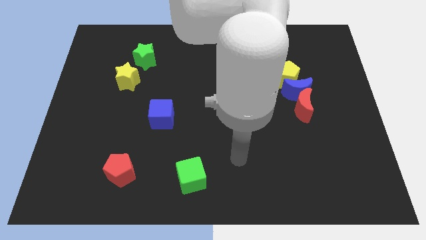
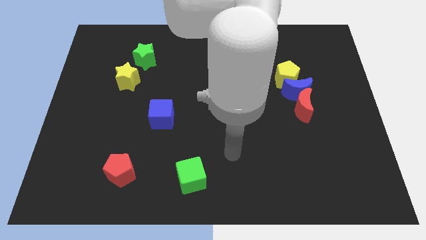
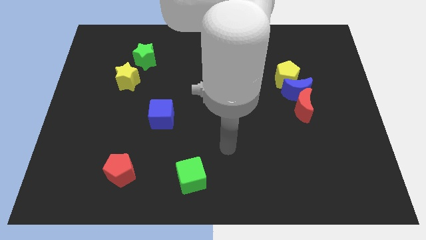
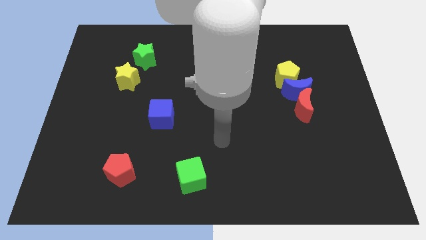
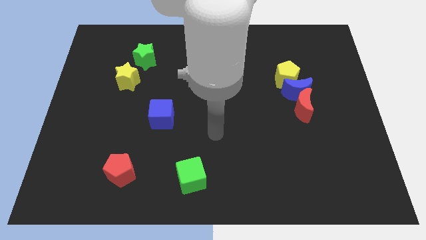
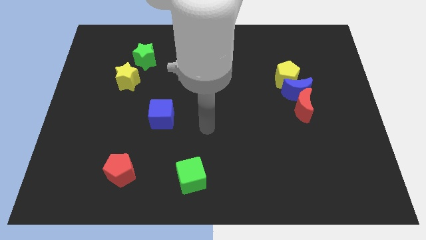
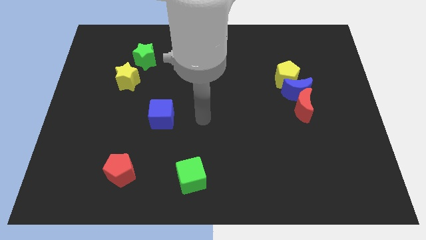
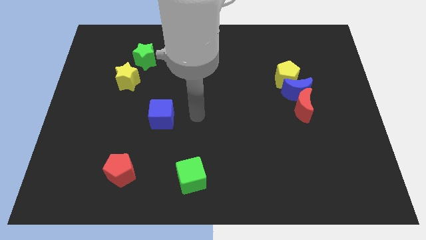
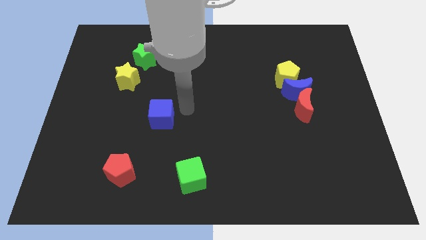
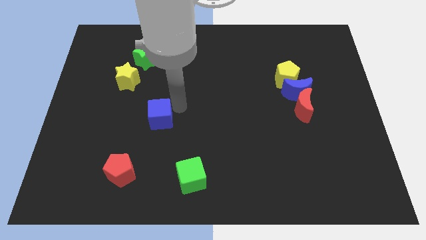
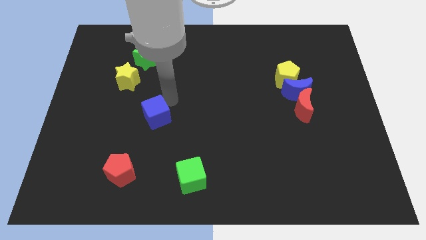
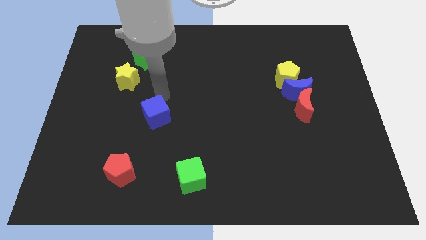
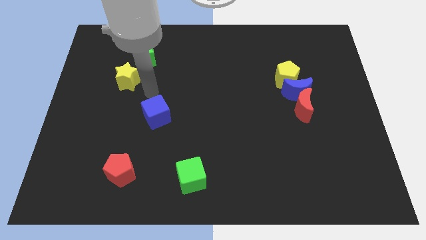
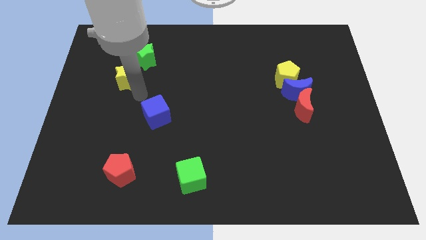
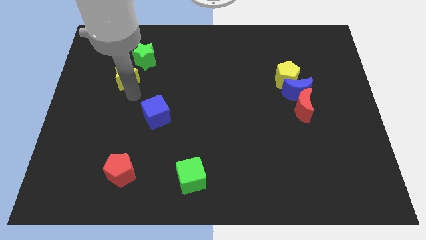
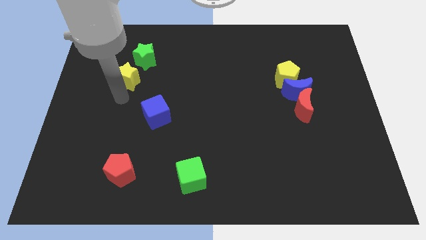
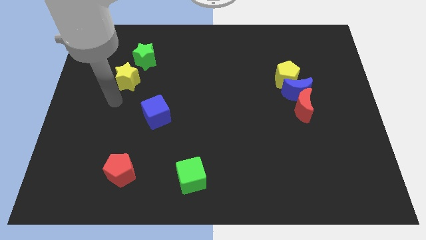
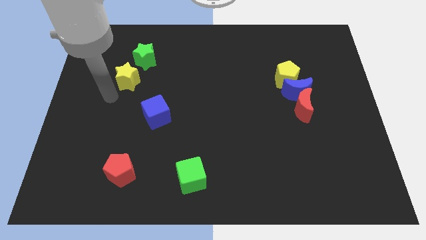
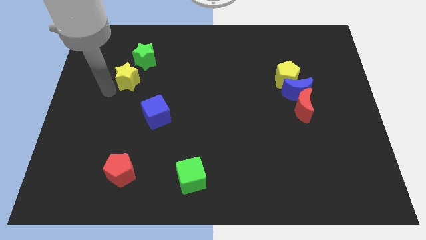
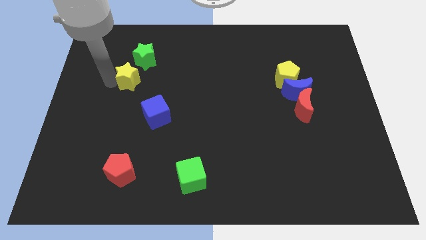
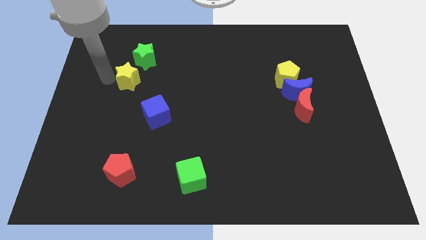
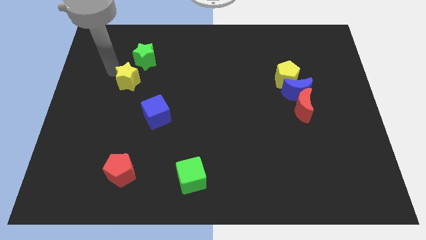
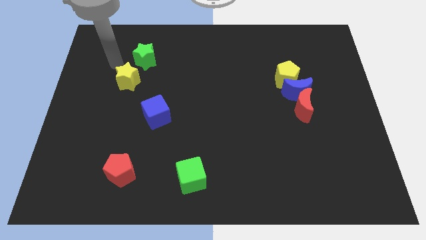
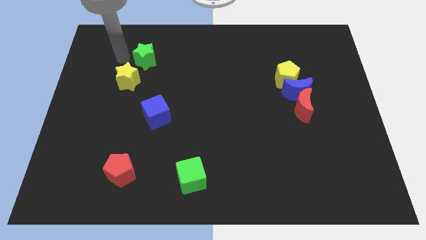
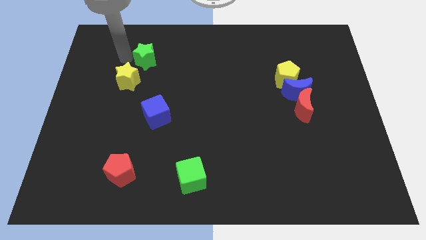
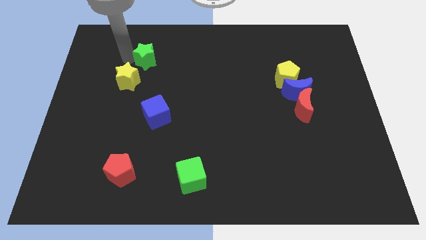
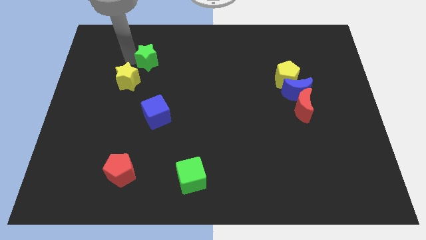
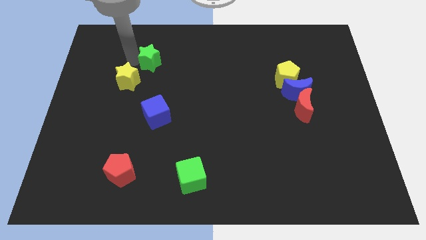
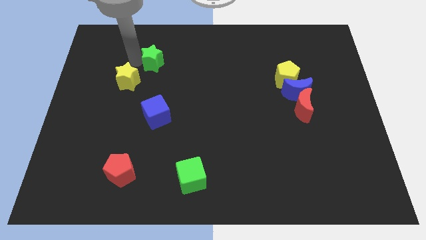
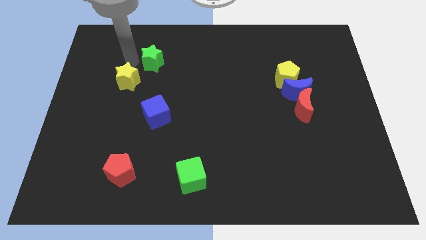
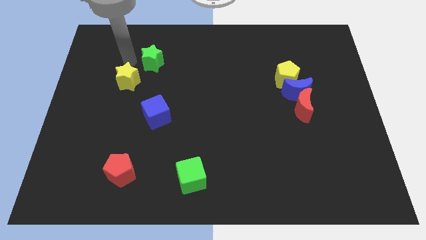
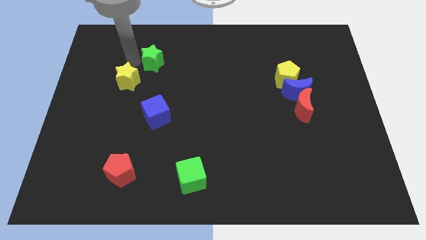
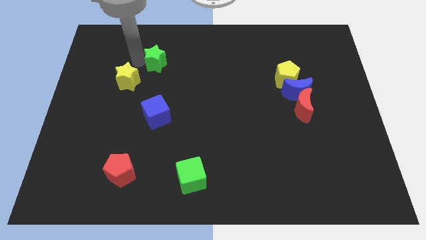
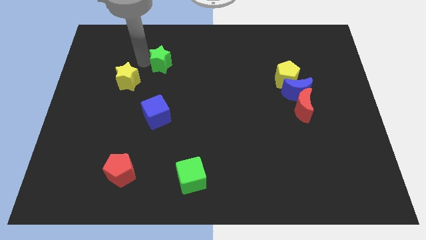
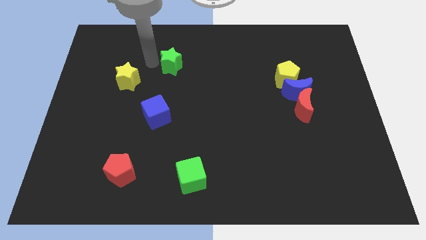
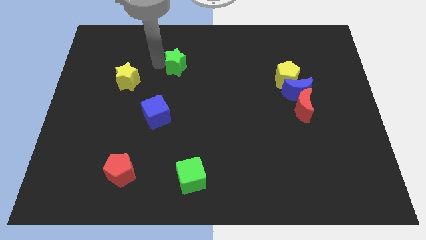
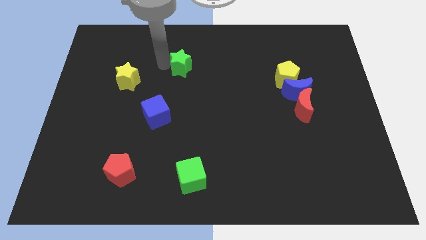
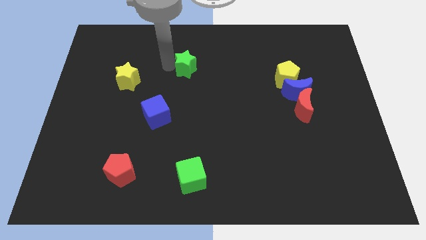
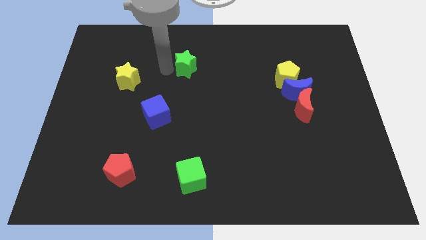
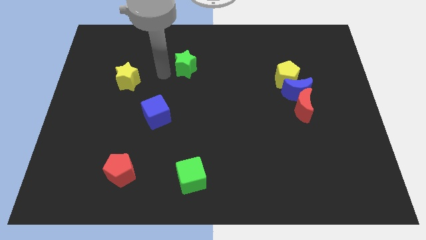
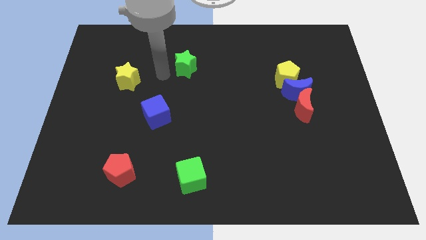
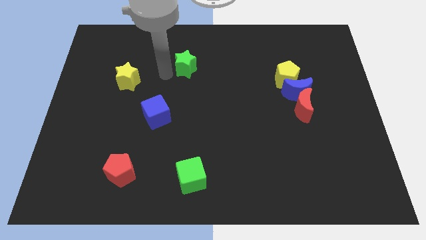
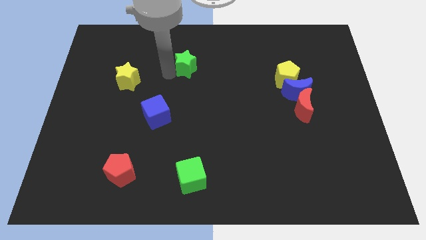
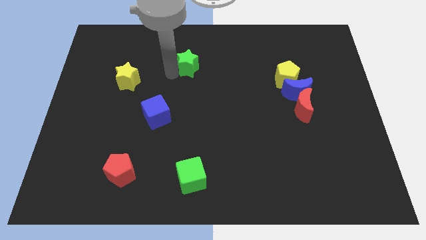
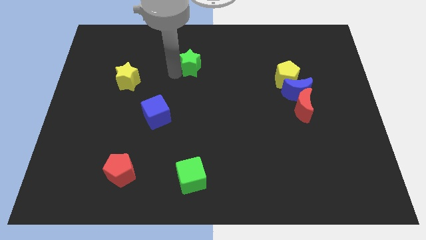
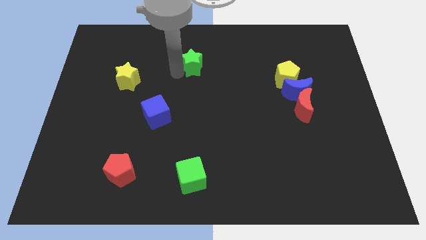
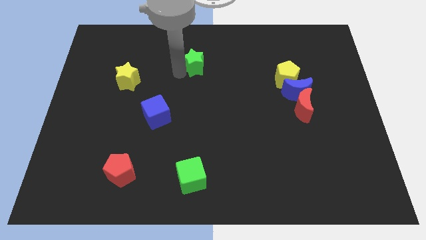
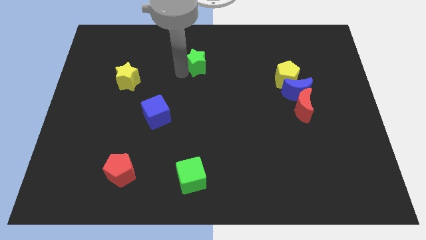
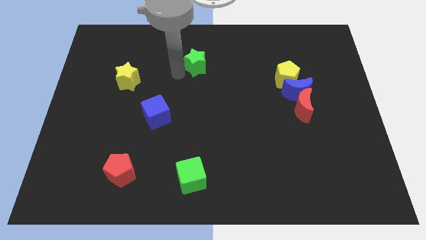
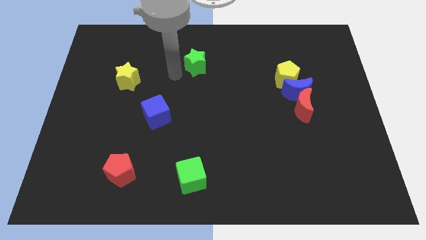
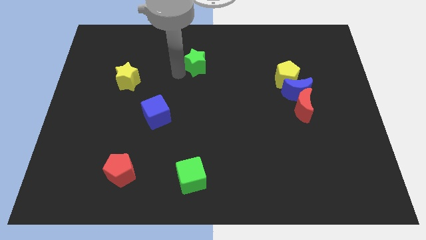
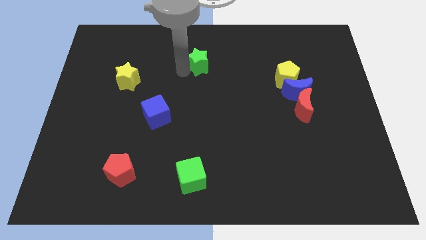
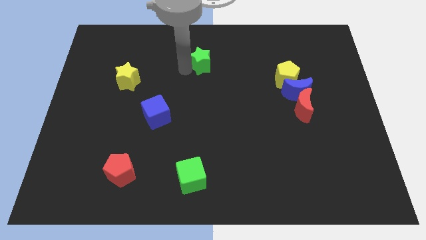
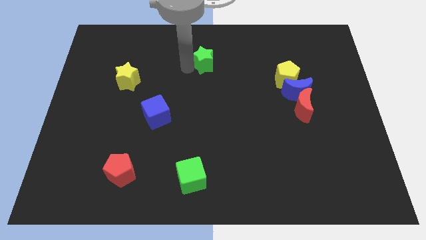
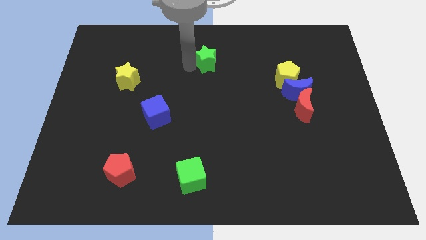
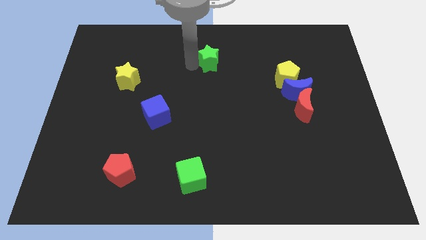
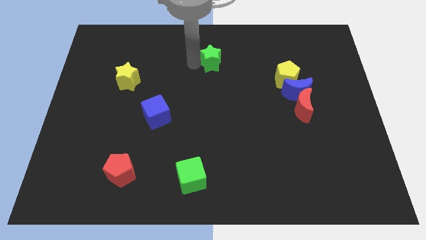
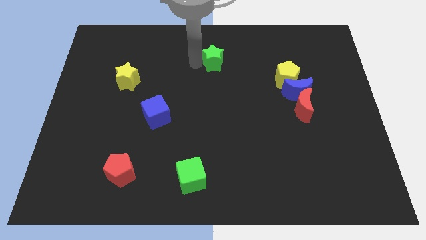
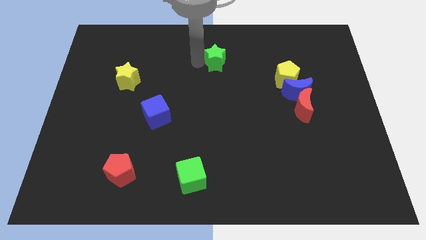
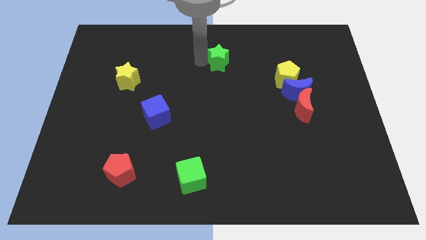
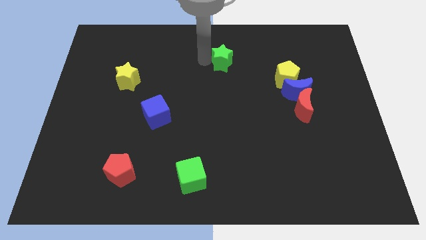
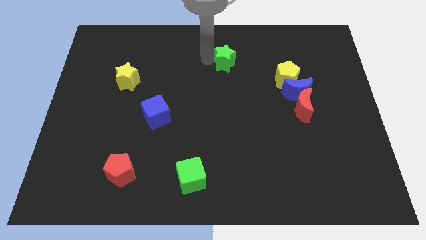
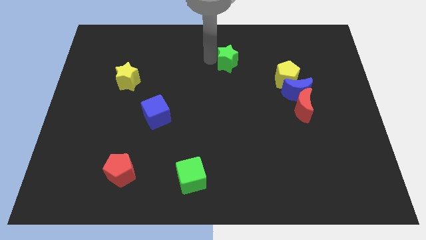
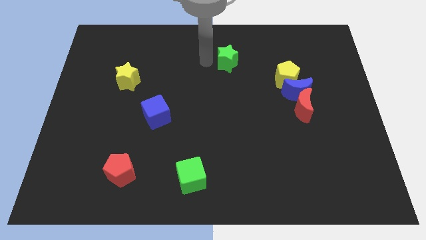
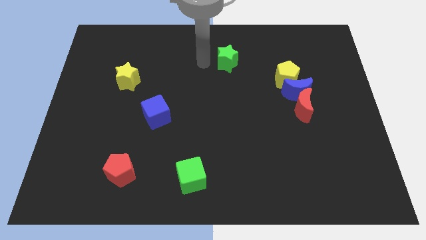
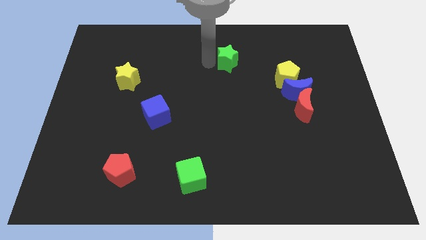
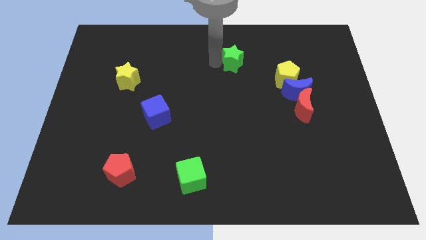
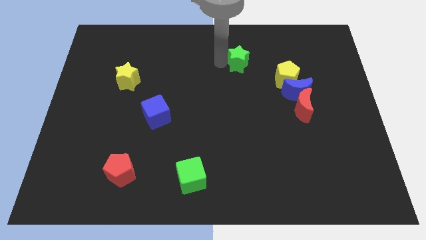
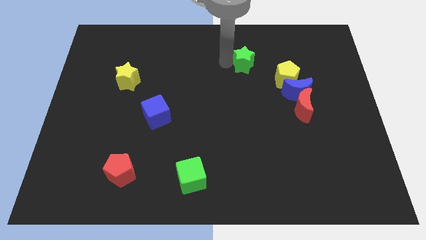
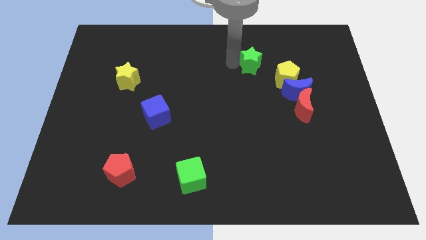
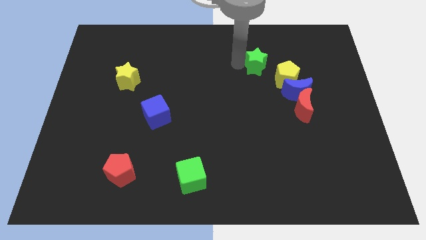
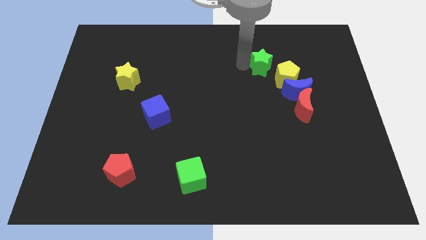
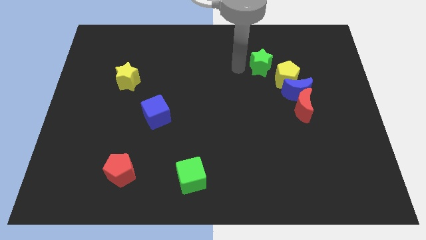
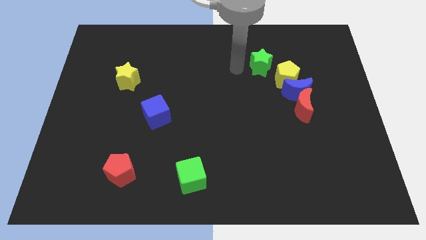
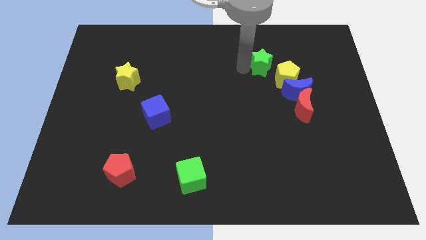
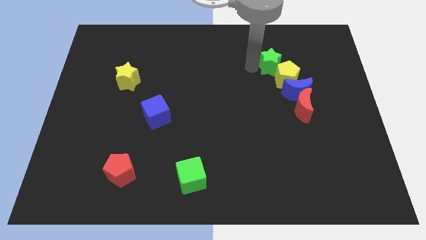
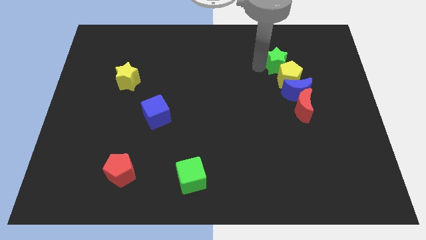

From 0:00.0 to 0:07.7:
move the green star to the top of the blue moon

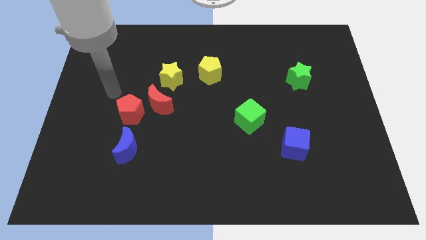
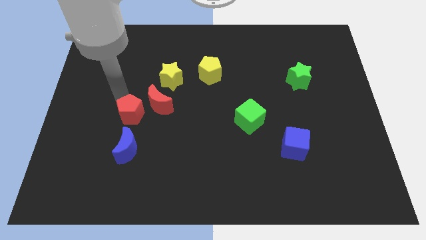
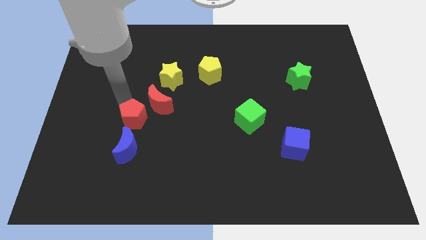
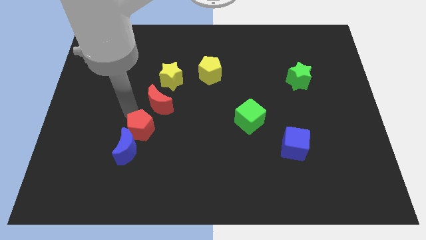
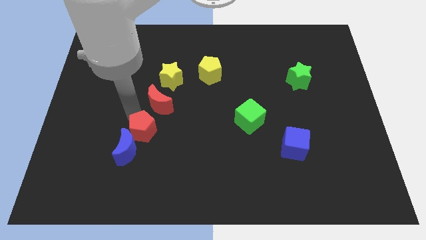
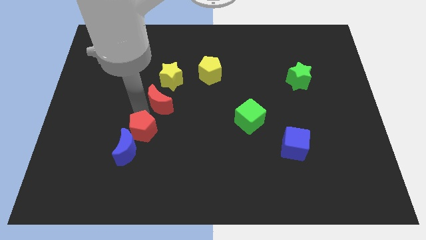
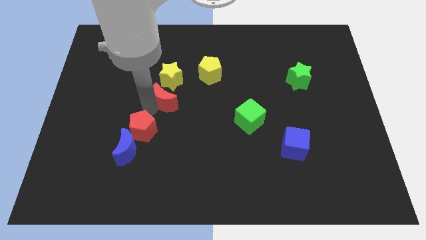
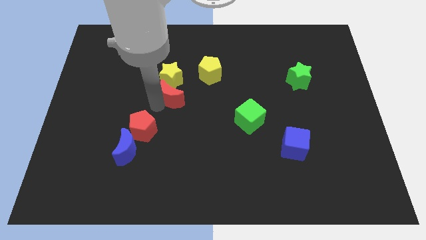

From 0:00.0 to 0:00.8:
put the red moon to the bottom left side of the yellow pentagon
